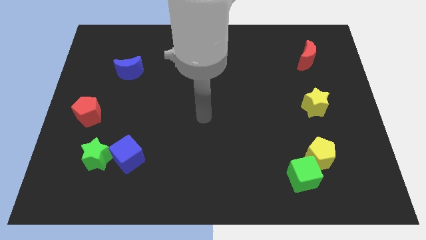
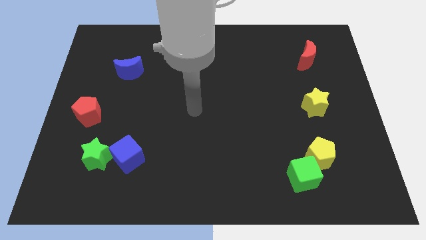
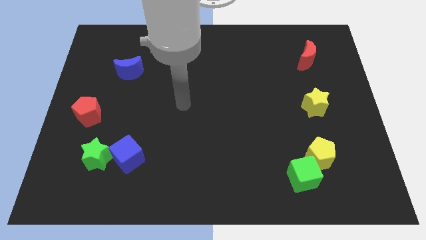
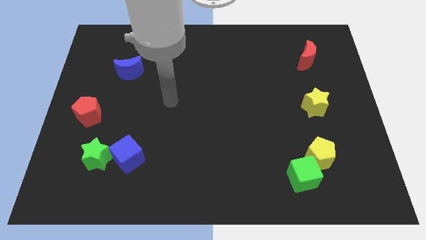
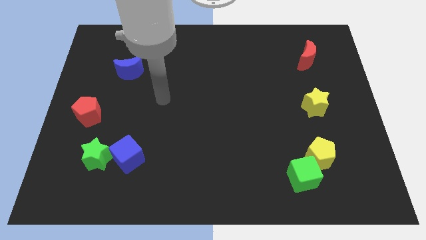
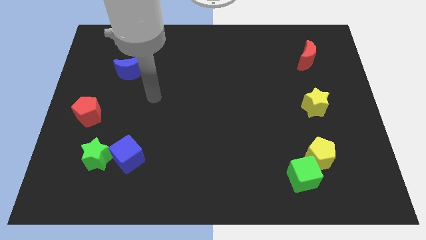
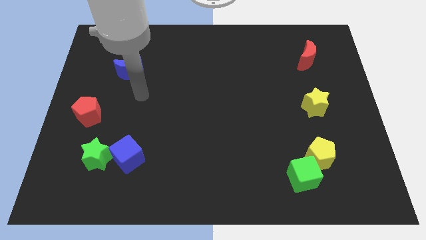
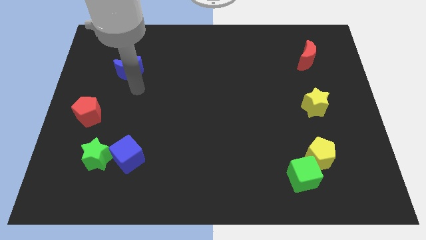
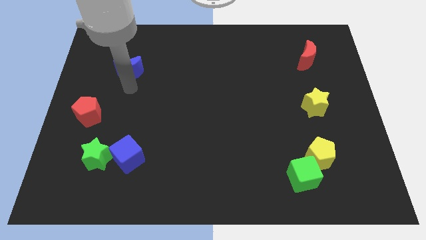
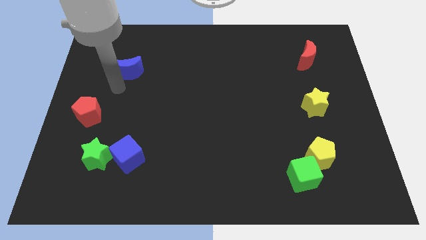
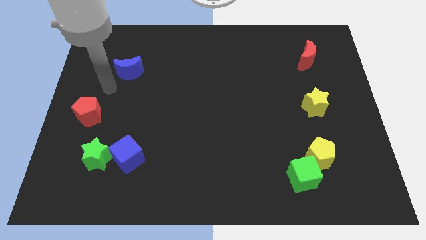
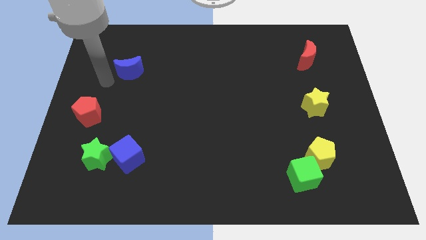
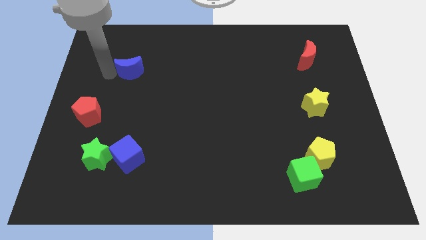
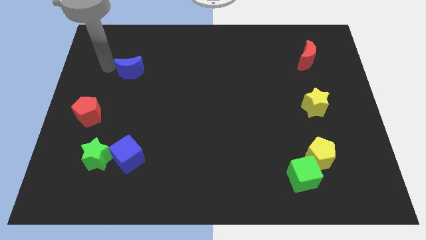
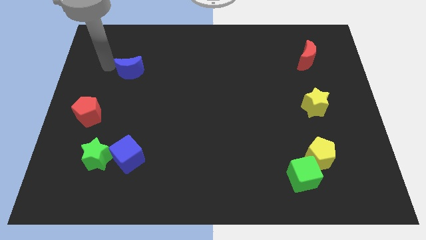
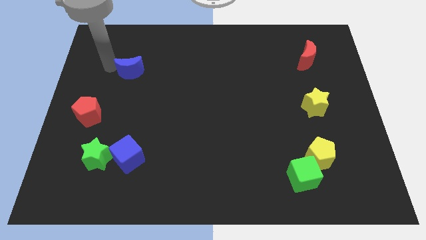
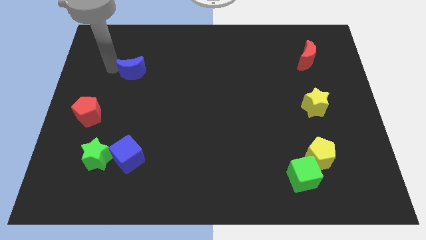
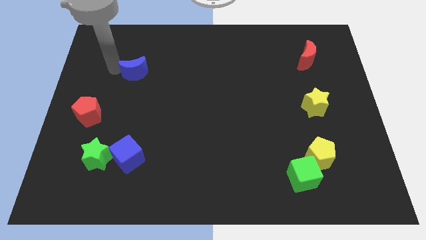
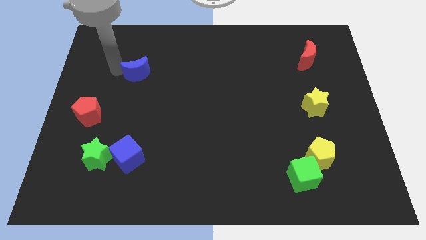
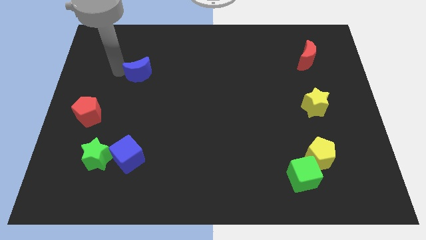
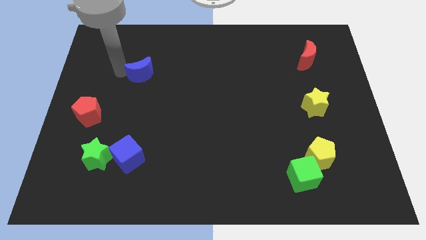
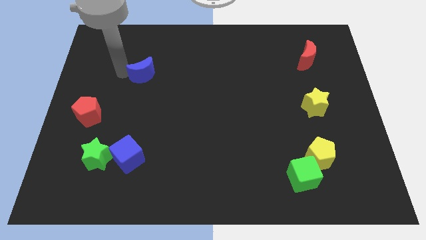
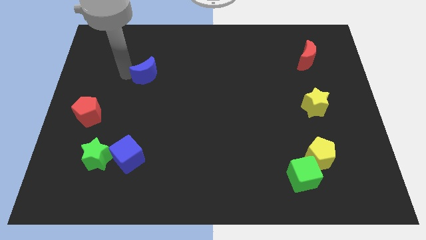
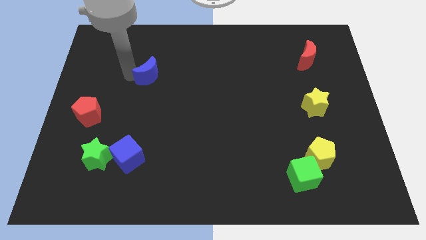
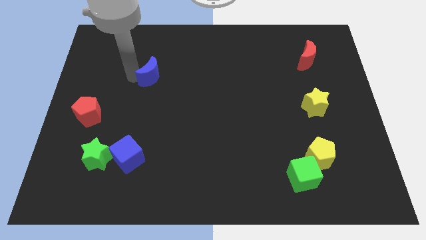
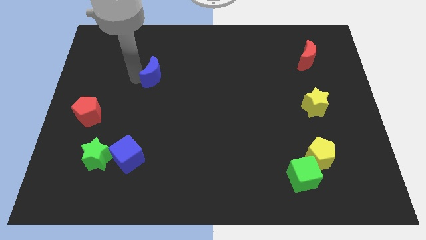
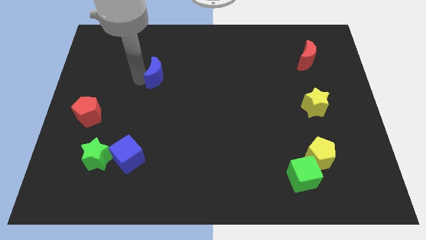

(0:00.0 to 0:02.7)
slightly move the blue moon right

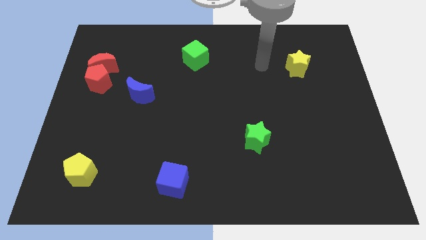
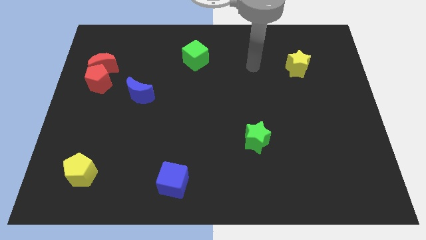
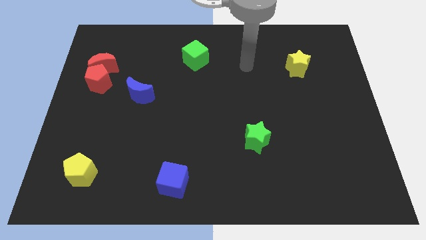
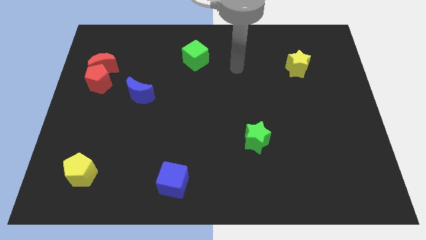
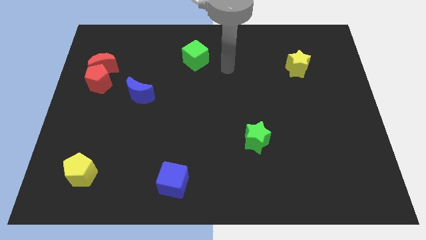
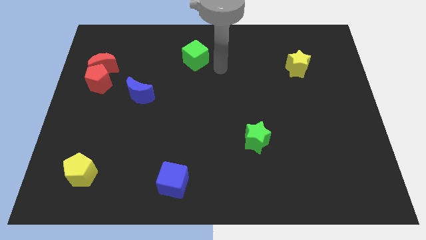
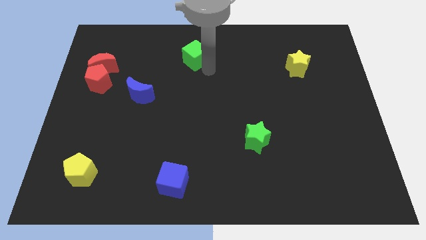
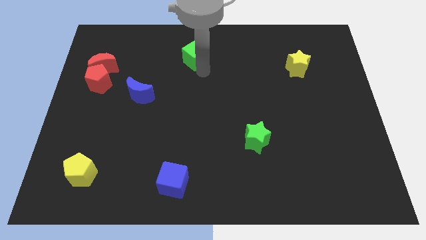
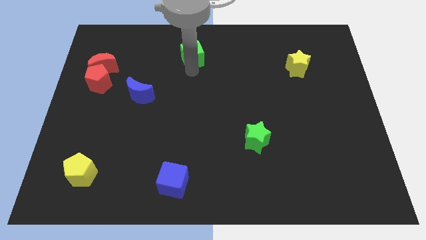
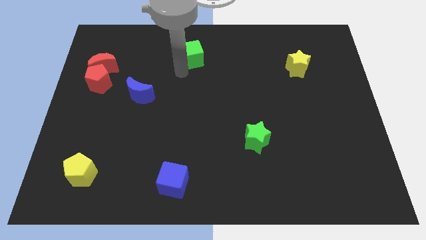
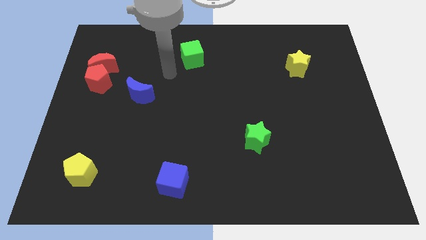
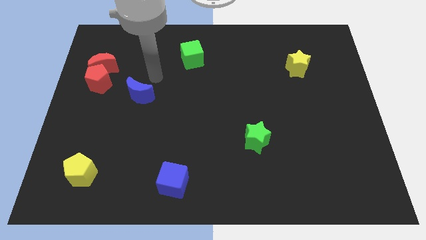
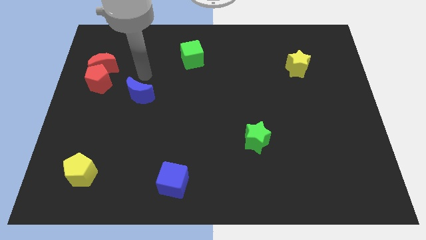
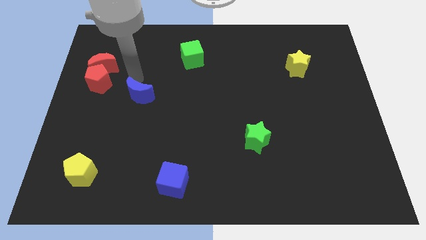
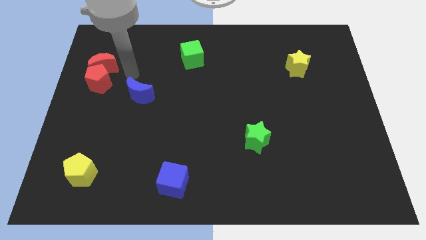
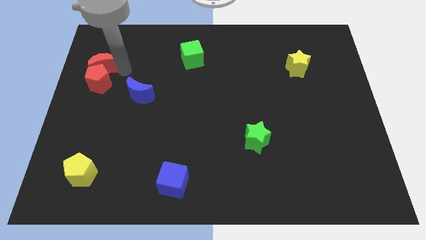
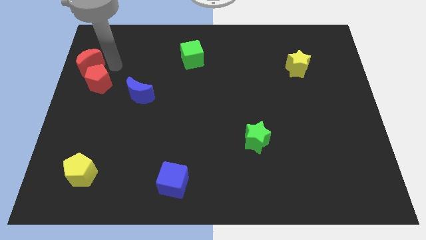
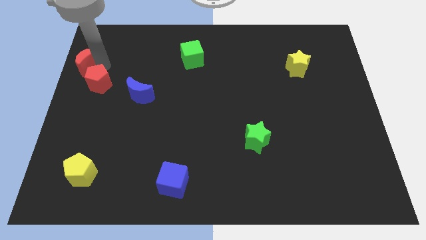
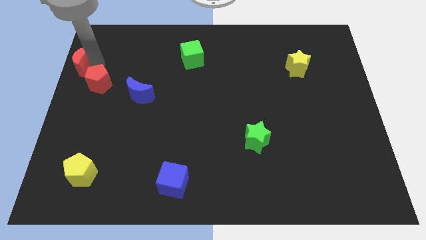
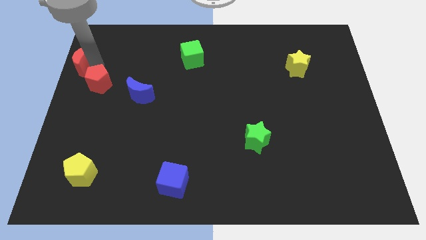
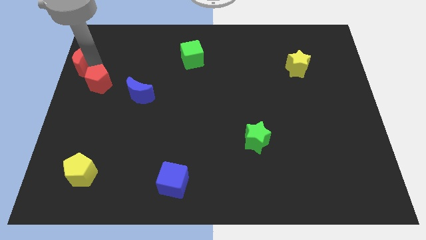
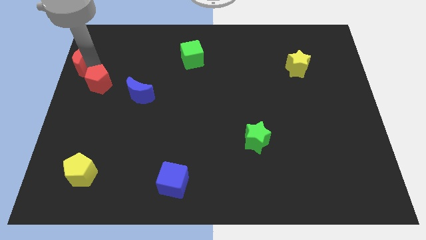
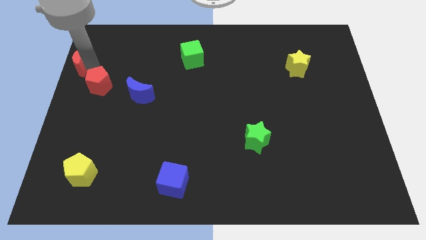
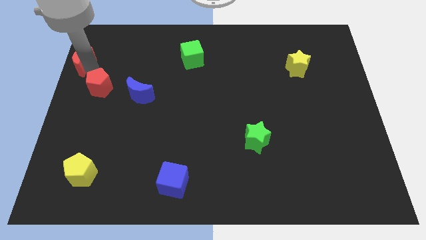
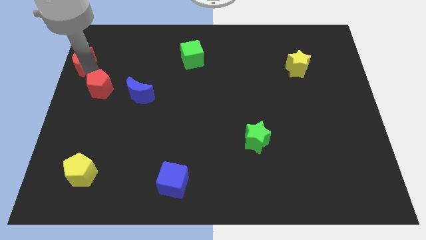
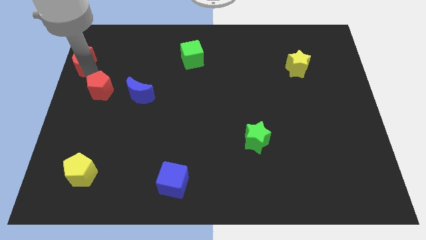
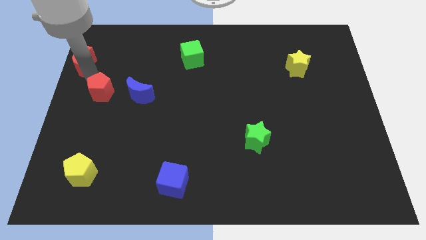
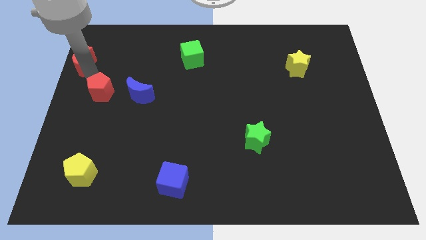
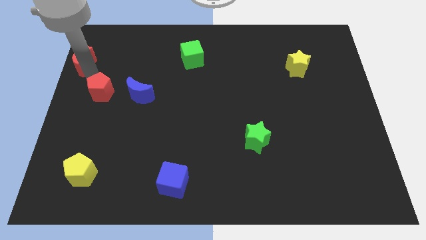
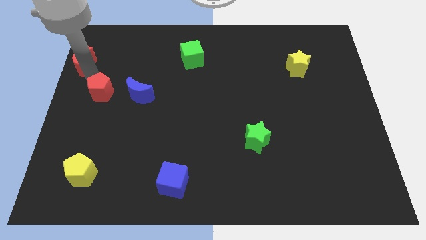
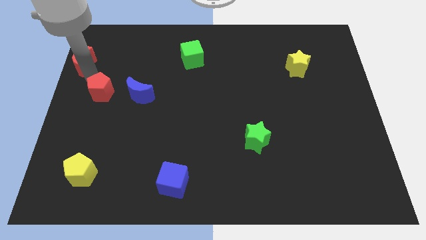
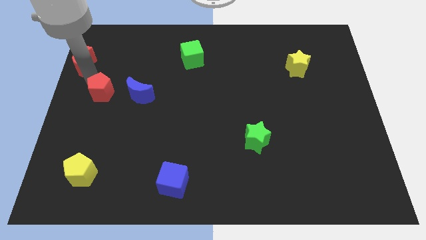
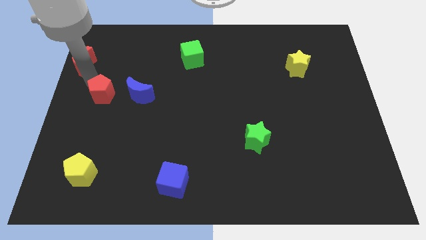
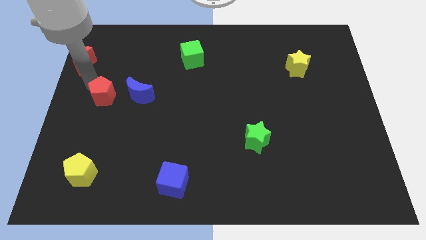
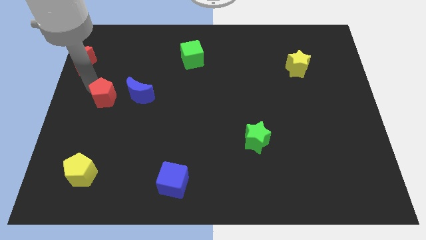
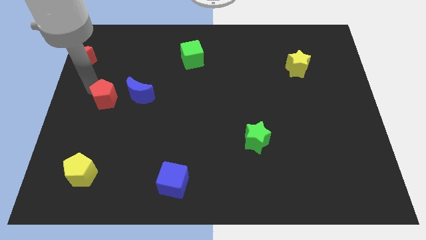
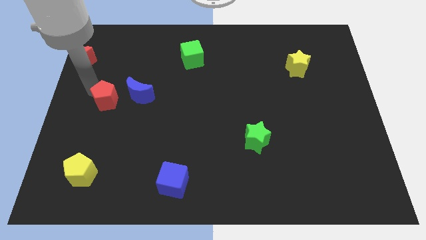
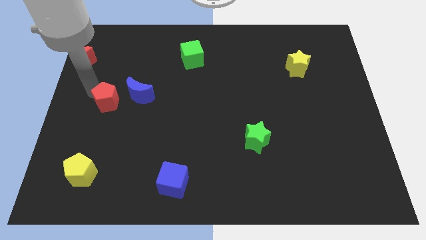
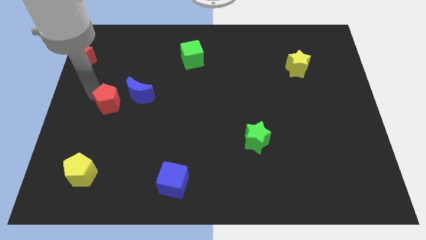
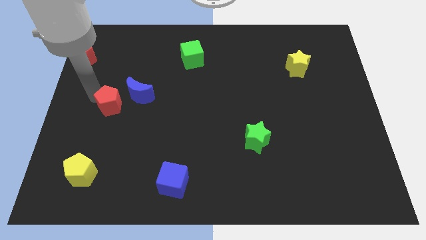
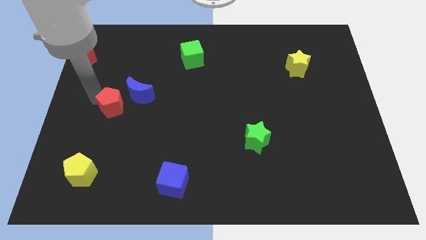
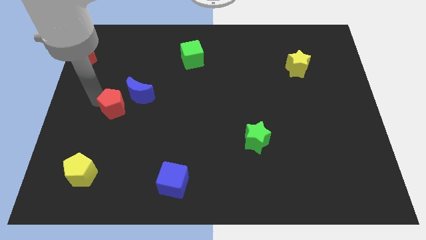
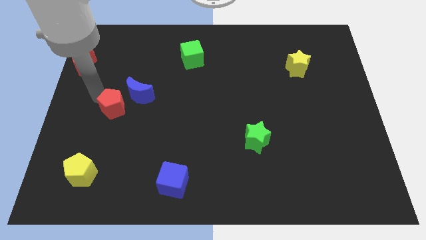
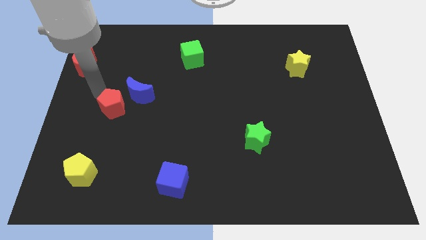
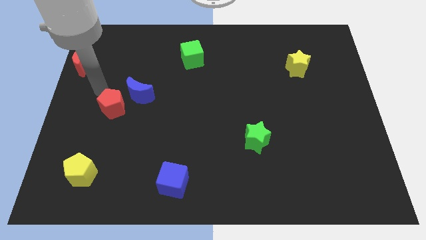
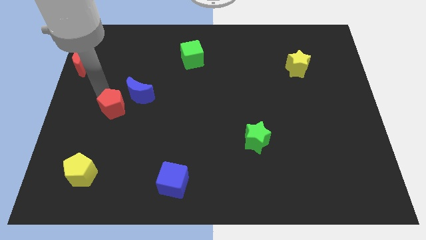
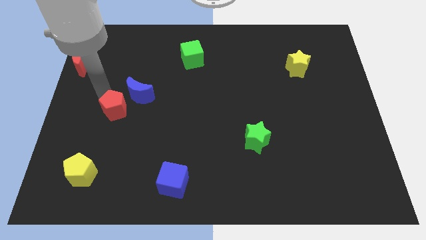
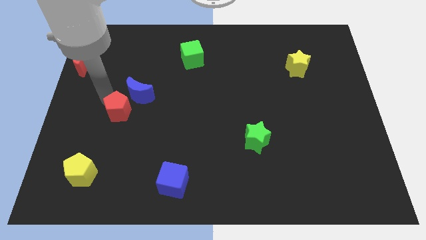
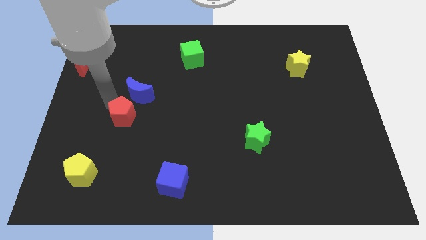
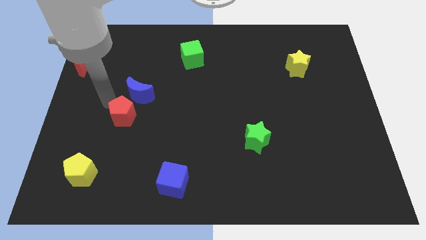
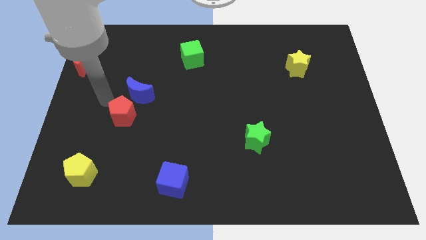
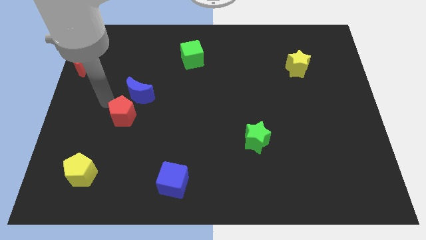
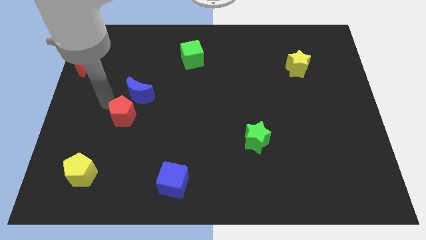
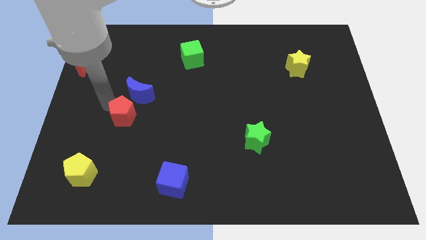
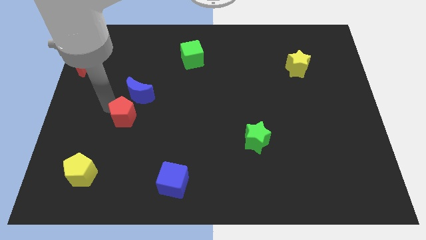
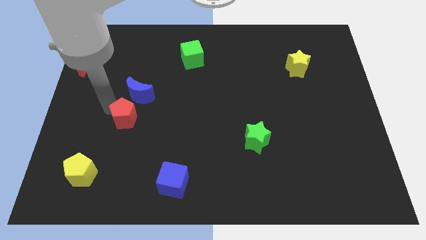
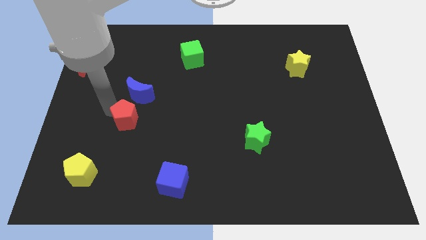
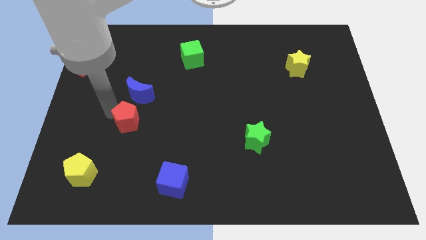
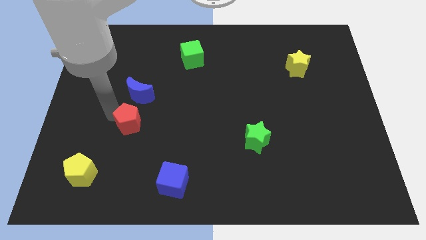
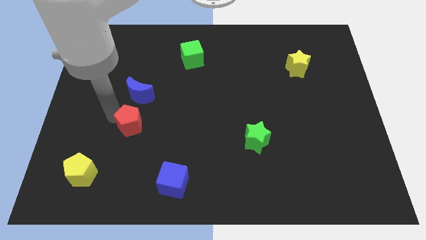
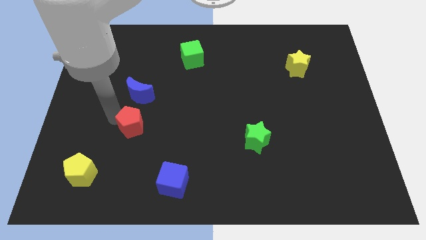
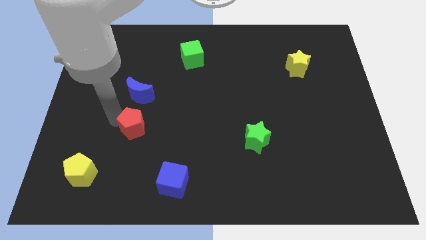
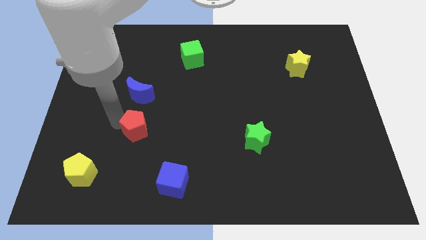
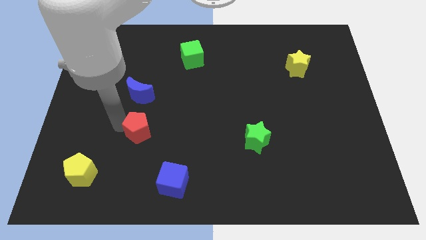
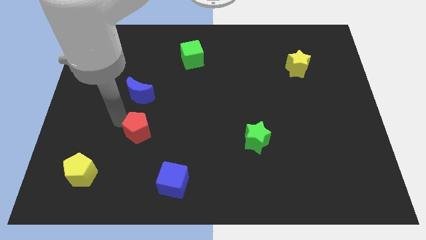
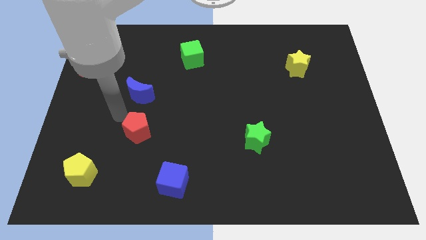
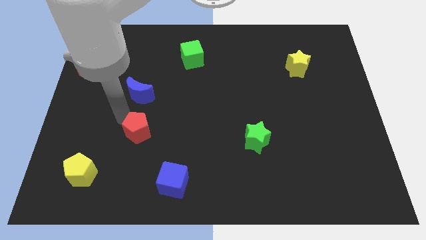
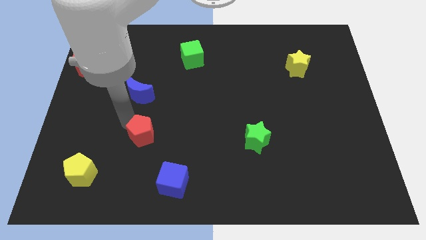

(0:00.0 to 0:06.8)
move the red pentagon diagonally down and to the right
